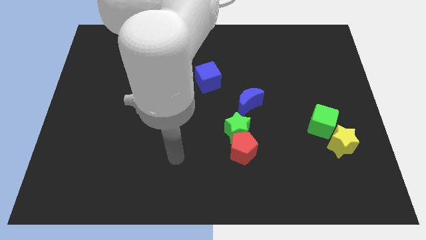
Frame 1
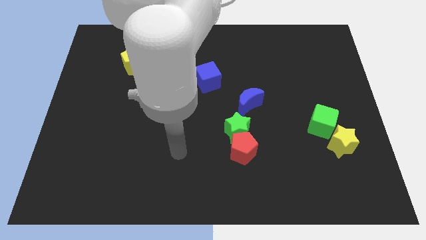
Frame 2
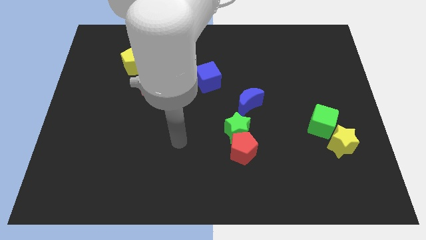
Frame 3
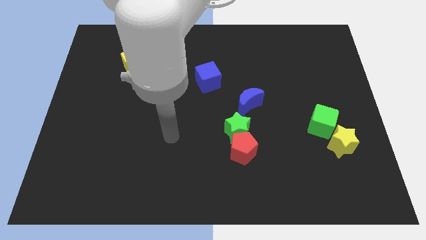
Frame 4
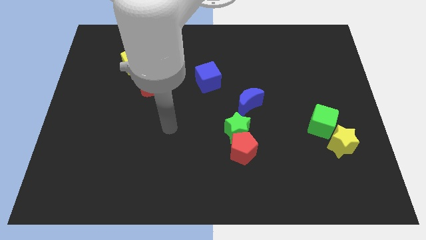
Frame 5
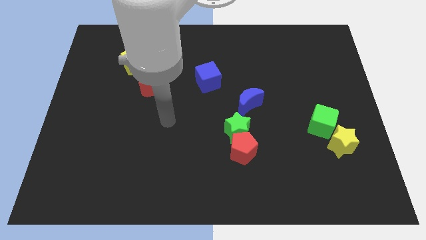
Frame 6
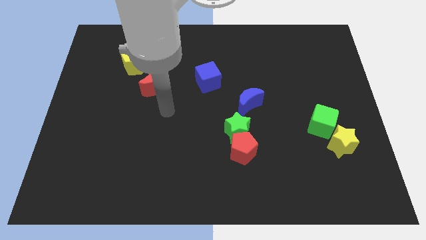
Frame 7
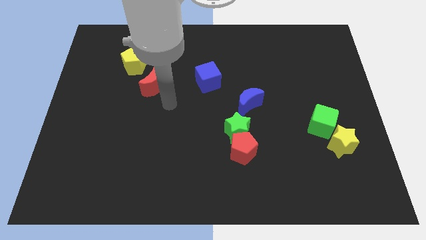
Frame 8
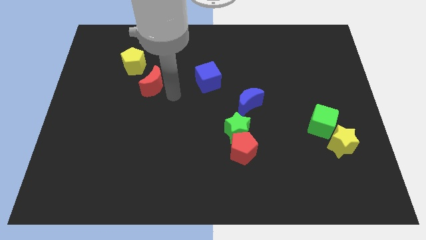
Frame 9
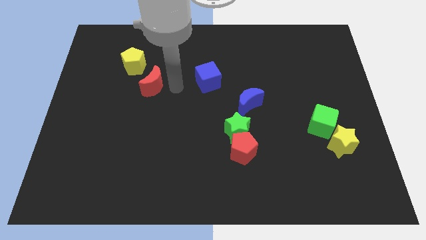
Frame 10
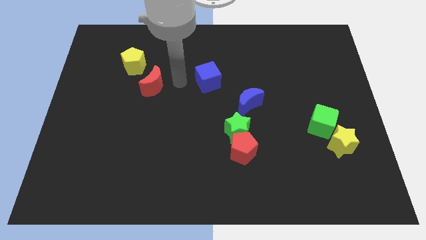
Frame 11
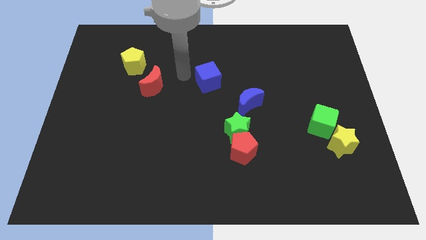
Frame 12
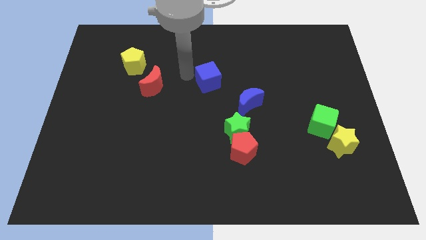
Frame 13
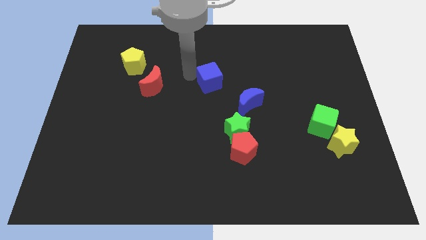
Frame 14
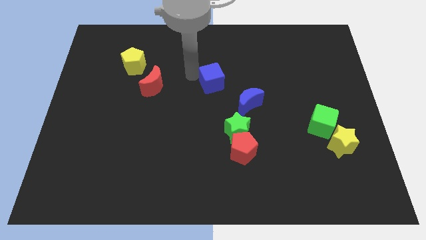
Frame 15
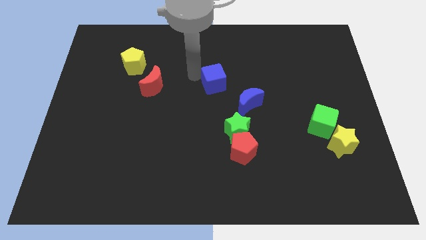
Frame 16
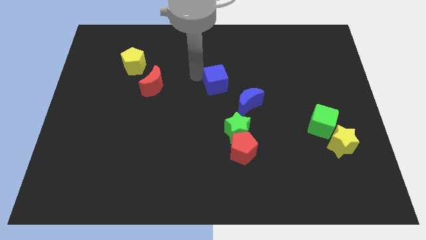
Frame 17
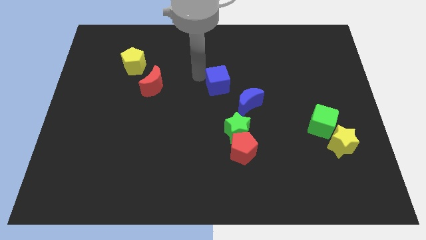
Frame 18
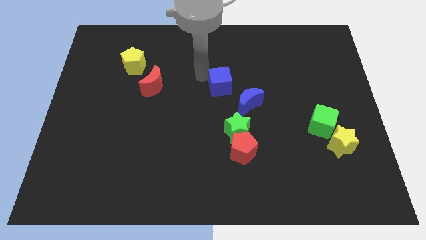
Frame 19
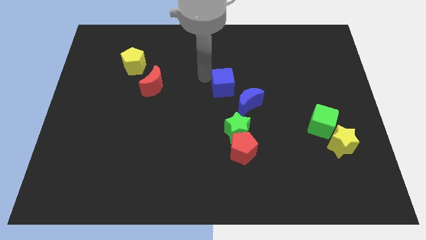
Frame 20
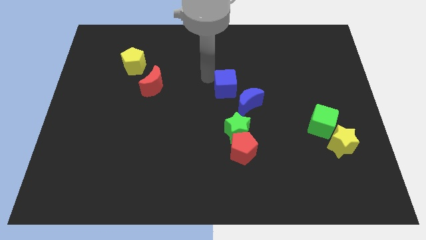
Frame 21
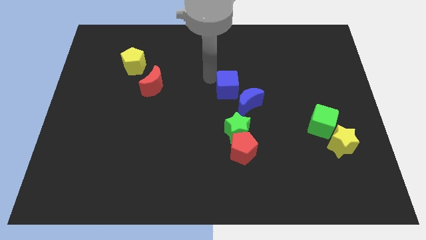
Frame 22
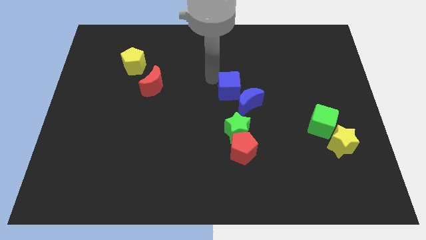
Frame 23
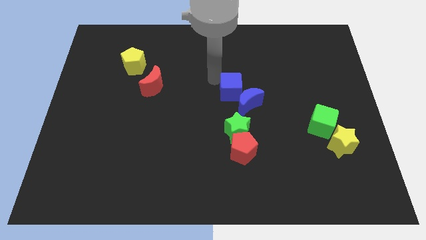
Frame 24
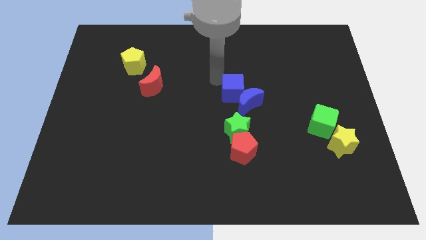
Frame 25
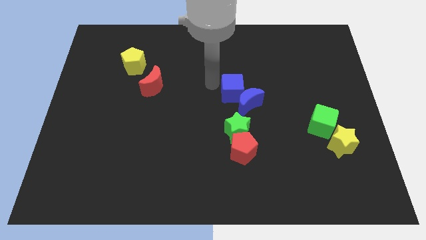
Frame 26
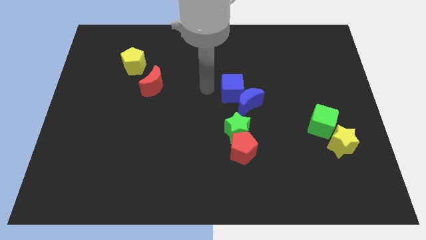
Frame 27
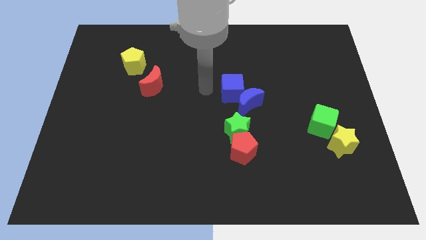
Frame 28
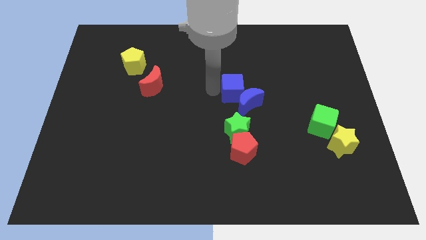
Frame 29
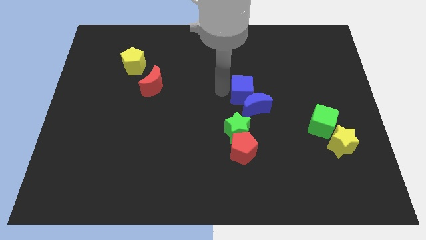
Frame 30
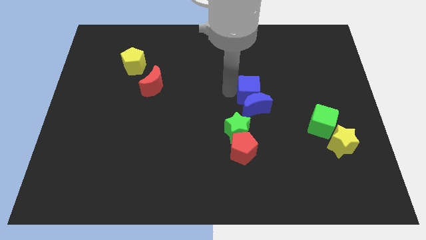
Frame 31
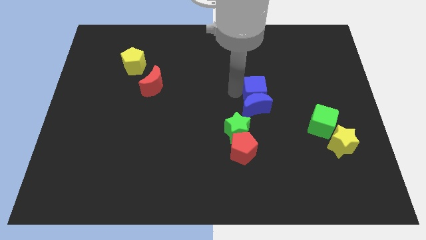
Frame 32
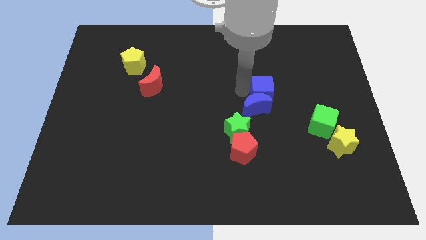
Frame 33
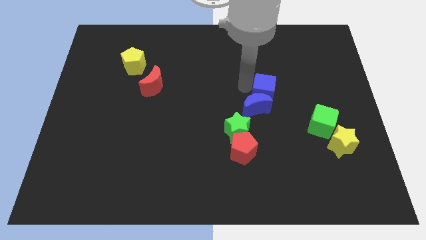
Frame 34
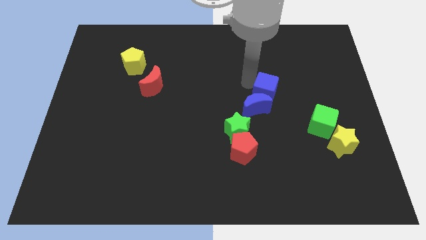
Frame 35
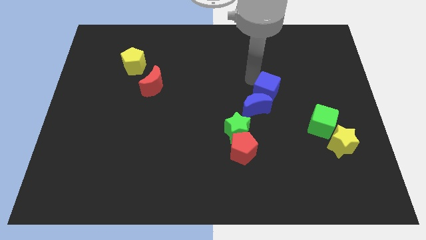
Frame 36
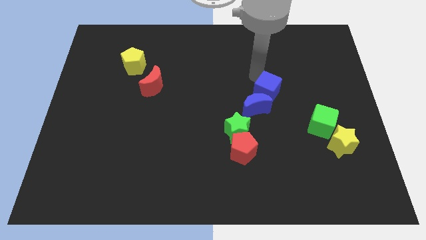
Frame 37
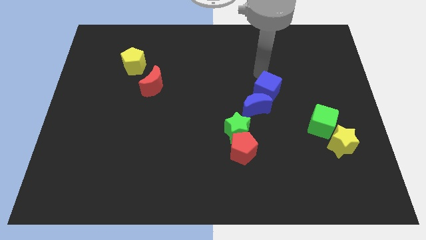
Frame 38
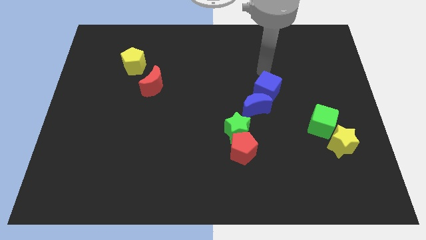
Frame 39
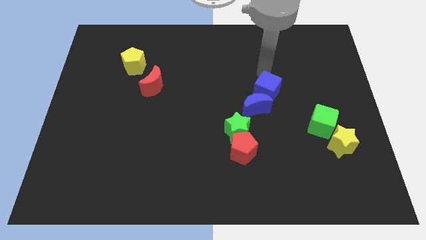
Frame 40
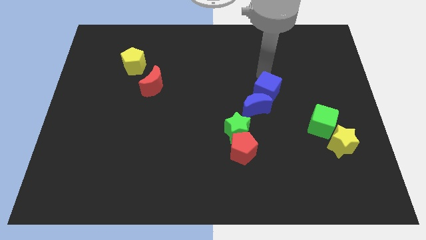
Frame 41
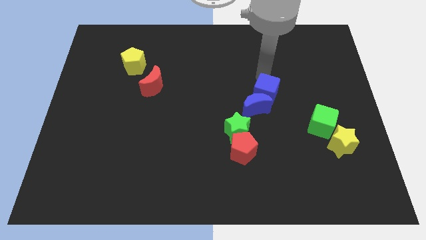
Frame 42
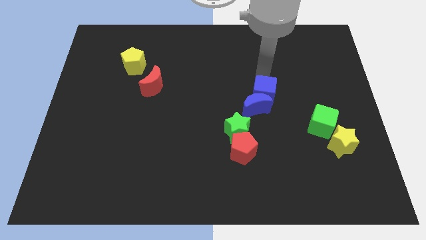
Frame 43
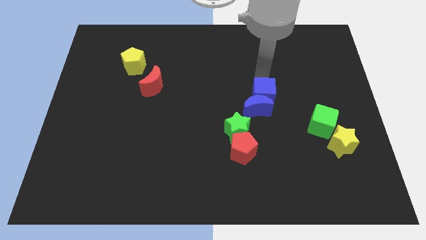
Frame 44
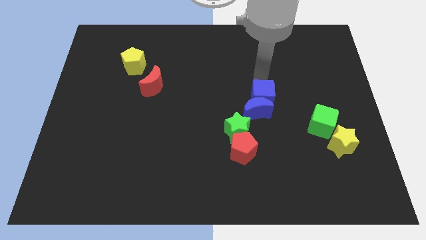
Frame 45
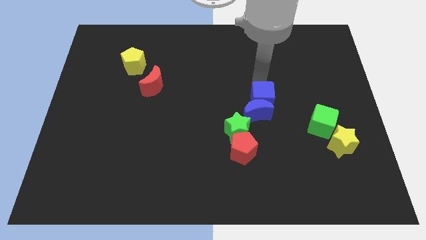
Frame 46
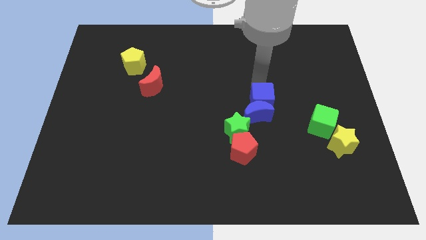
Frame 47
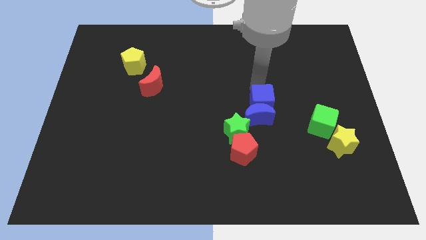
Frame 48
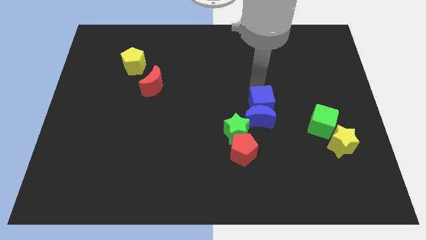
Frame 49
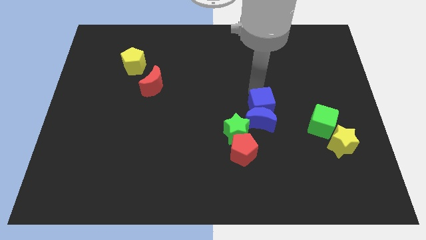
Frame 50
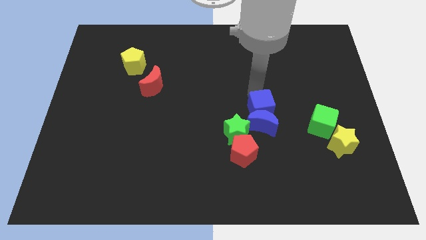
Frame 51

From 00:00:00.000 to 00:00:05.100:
move the blue cube to the left side of the green cube

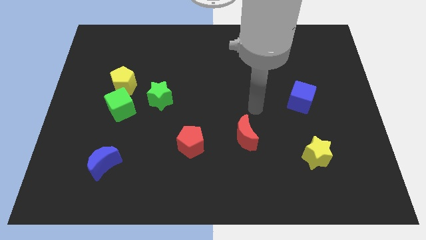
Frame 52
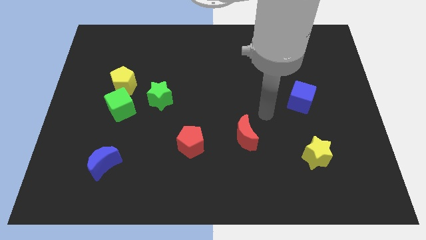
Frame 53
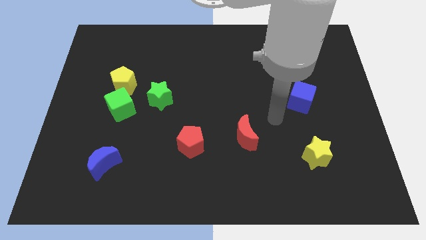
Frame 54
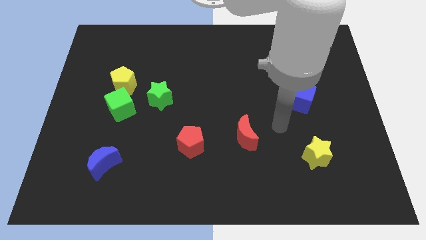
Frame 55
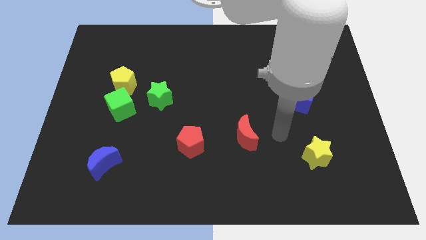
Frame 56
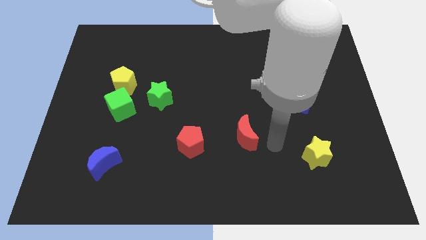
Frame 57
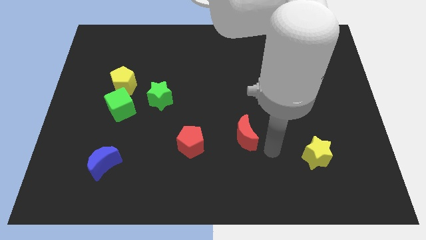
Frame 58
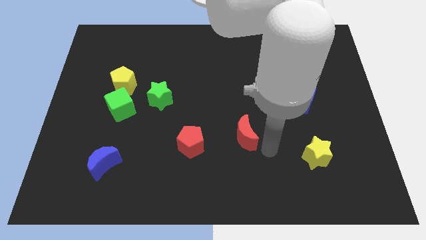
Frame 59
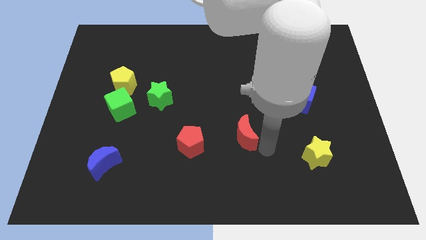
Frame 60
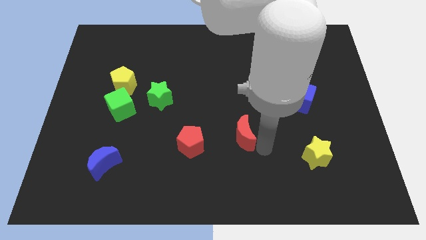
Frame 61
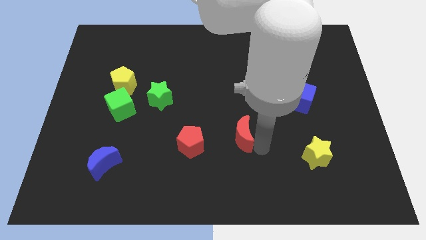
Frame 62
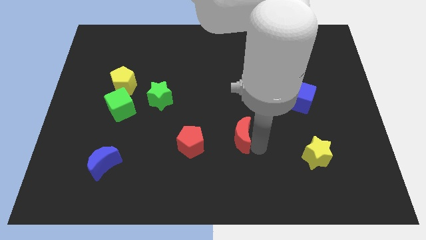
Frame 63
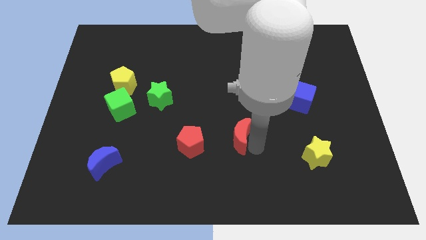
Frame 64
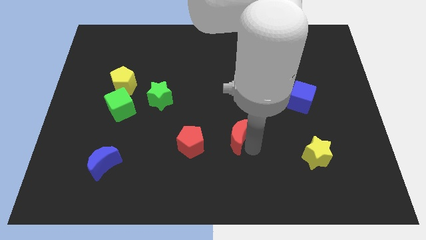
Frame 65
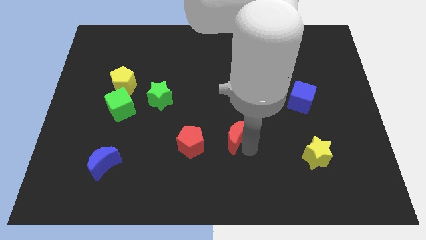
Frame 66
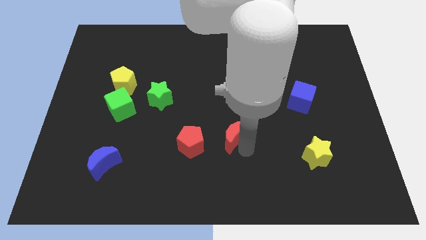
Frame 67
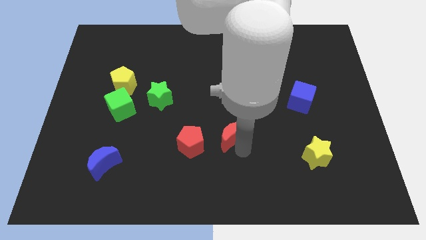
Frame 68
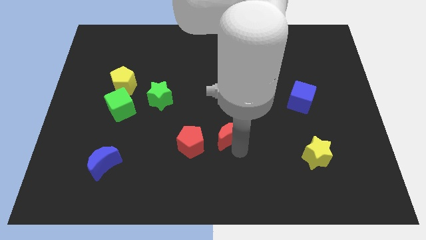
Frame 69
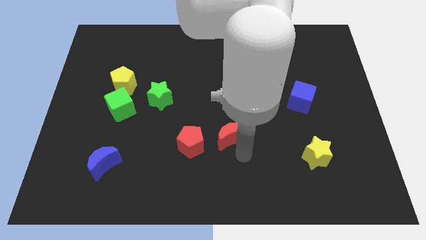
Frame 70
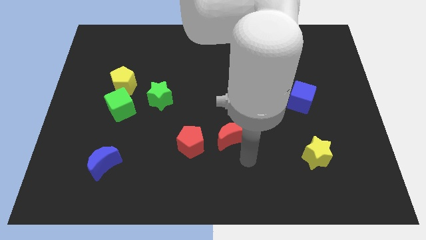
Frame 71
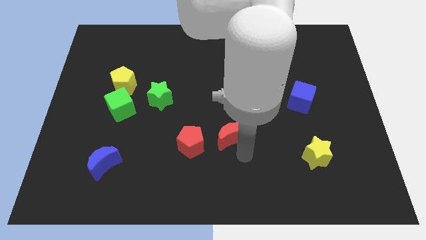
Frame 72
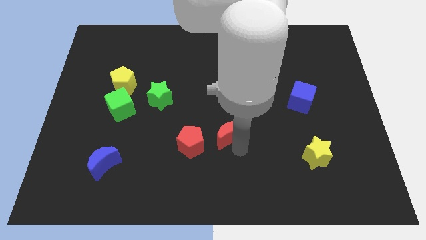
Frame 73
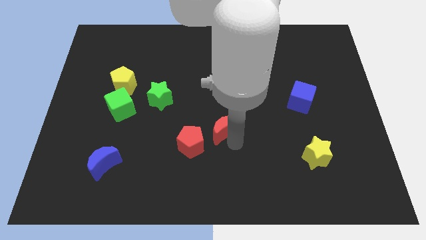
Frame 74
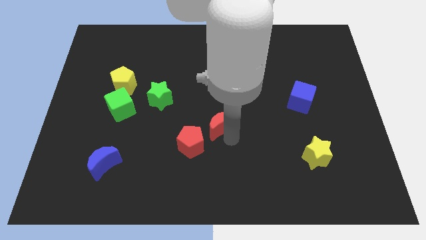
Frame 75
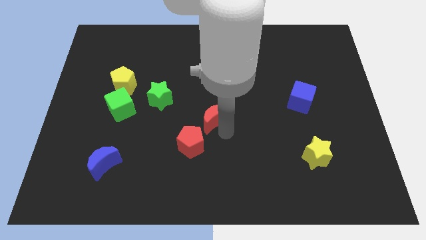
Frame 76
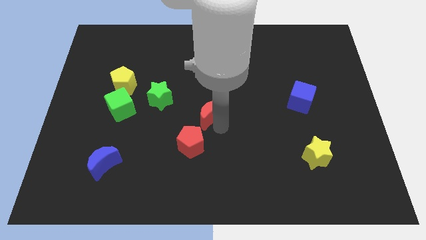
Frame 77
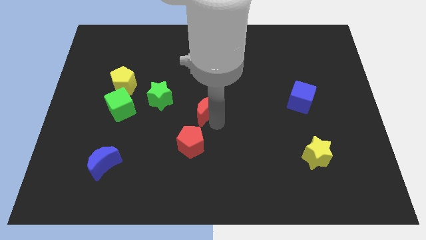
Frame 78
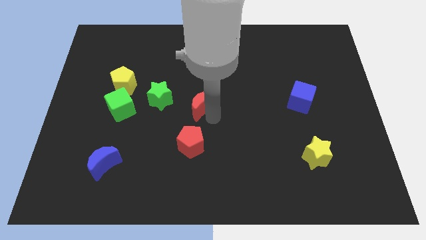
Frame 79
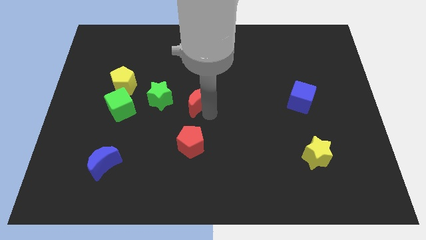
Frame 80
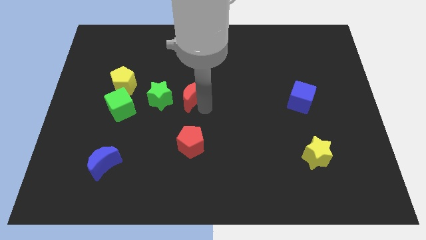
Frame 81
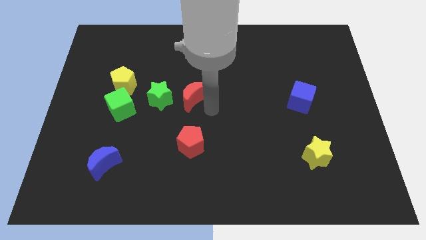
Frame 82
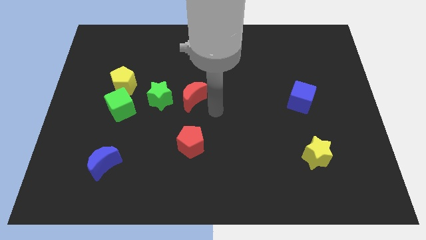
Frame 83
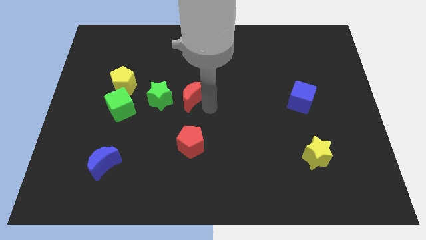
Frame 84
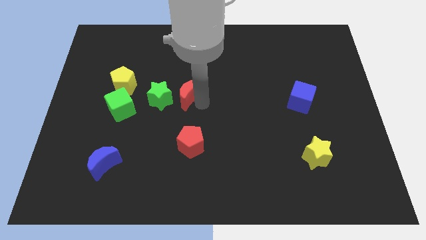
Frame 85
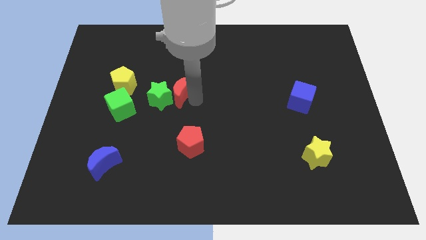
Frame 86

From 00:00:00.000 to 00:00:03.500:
put the red moon to the right of the yellow pentagon
